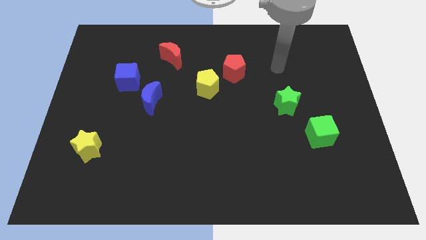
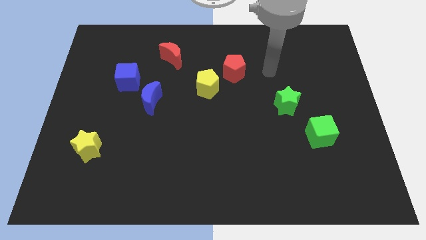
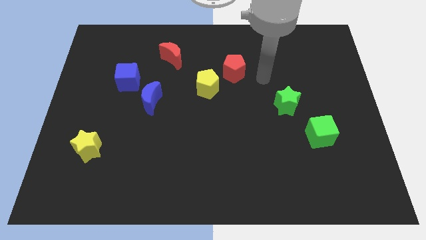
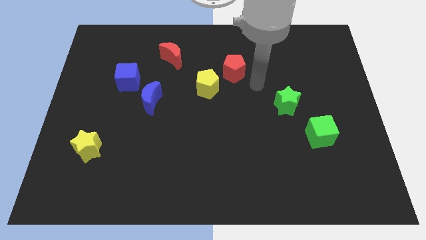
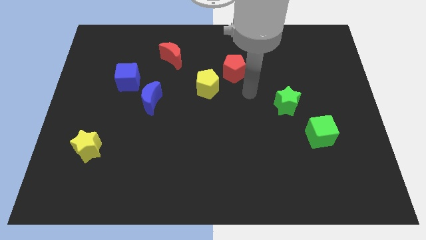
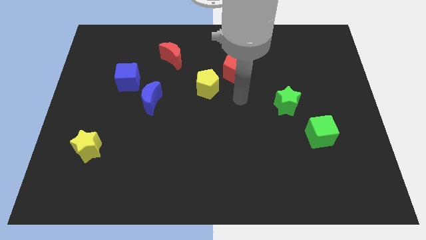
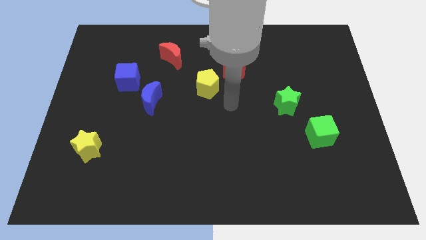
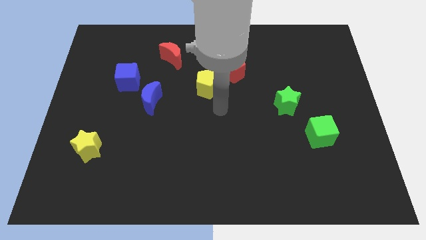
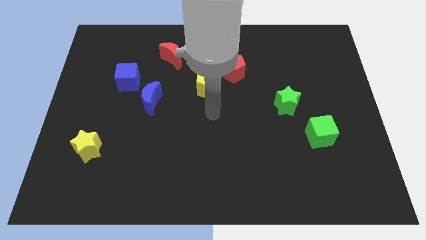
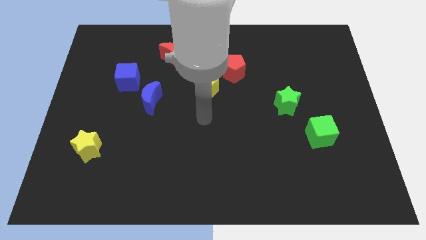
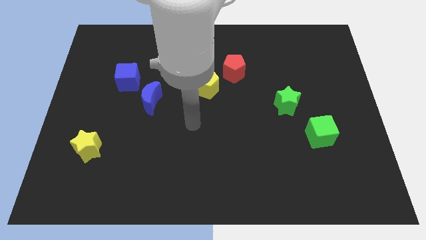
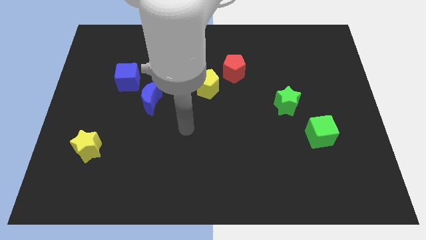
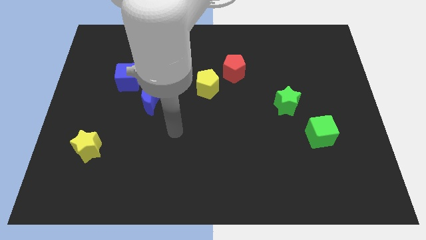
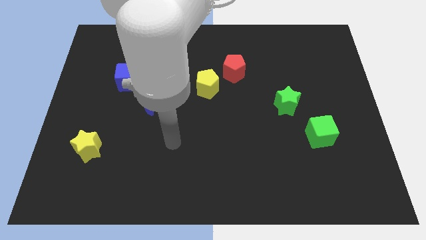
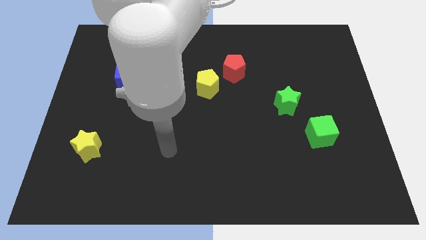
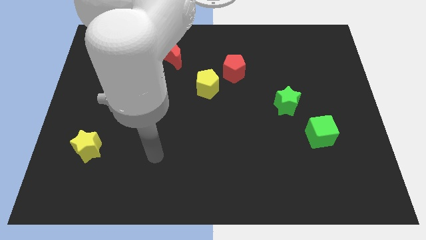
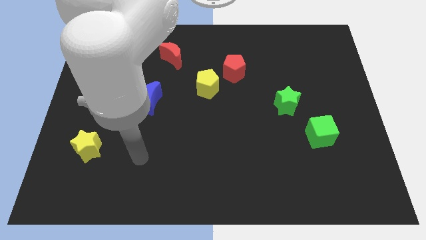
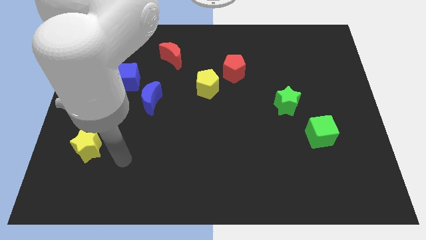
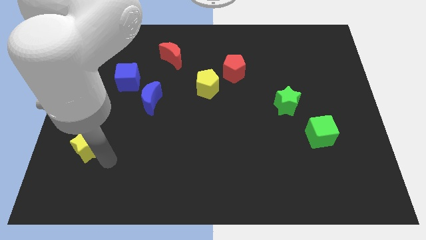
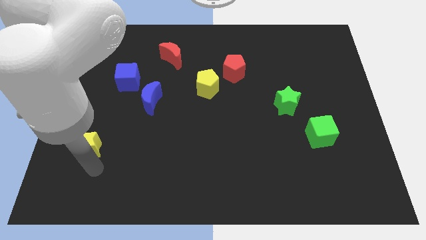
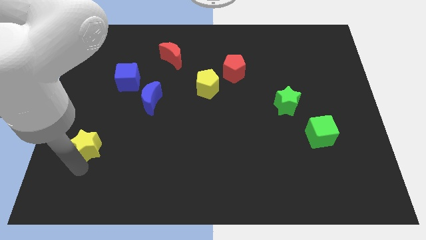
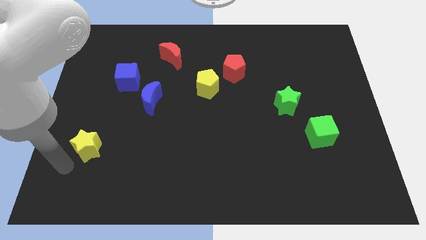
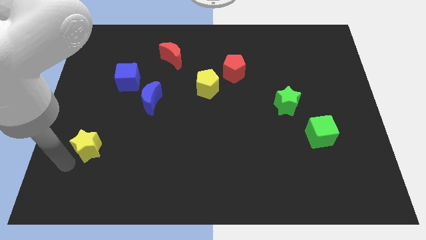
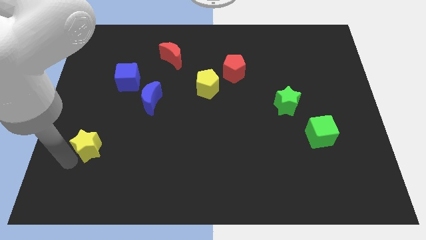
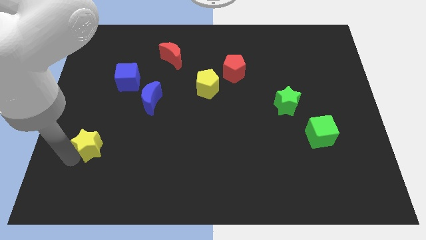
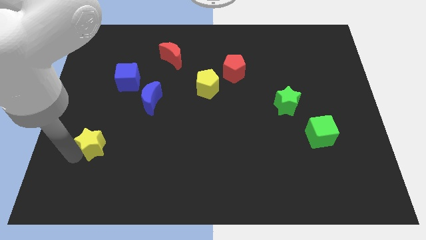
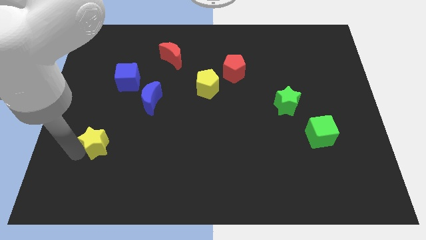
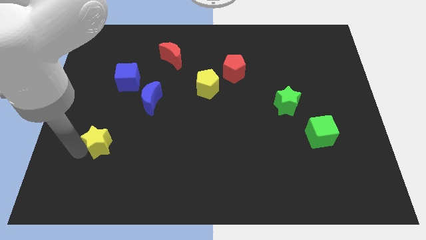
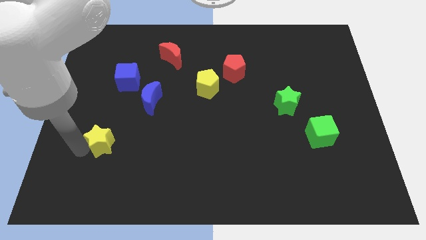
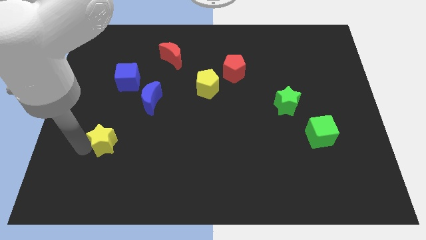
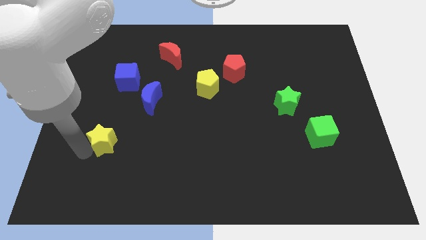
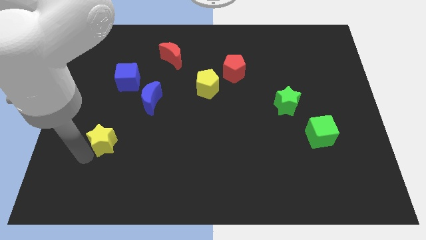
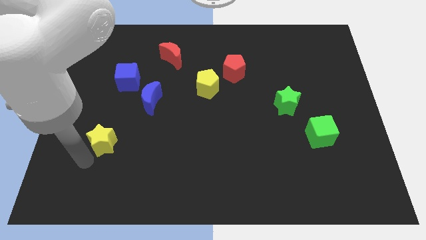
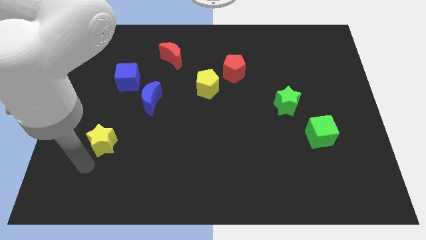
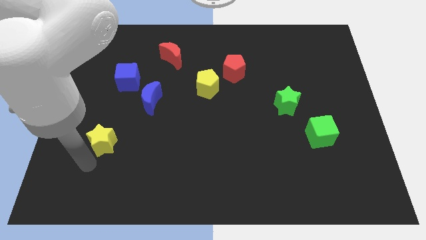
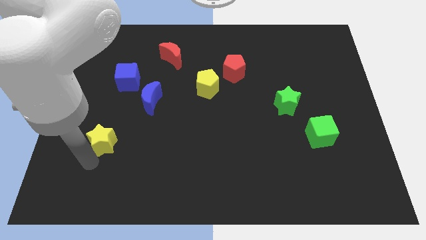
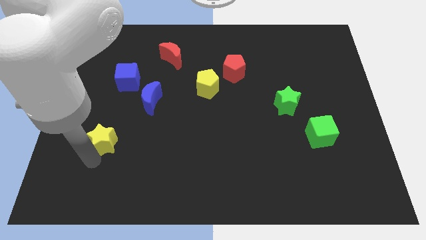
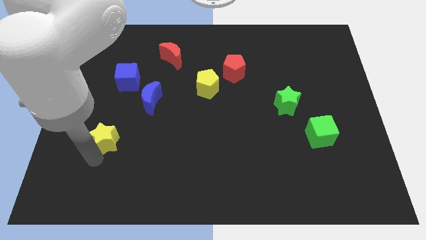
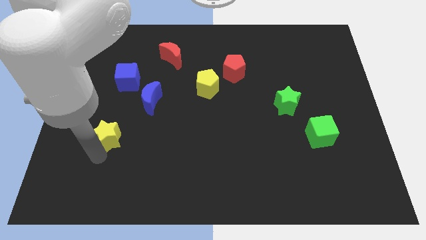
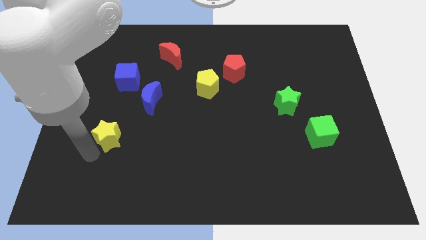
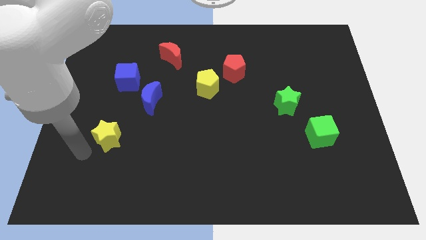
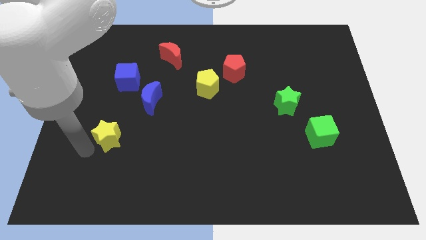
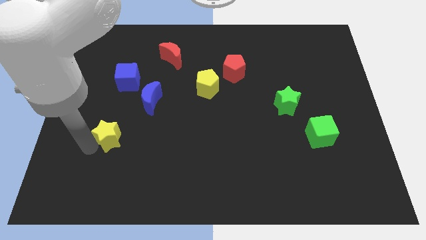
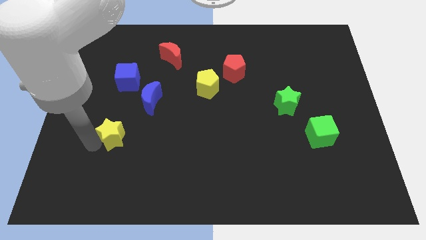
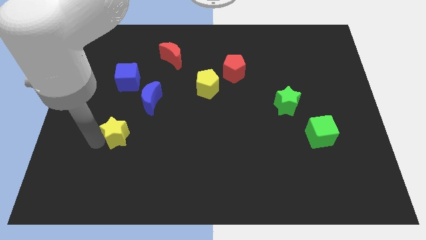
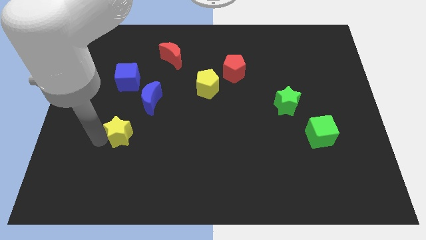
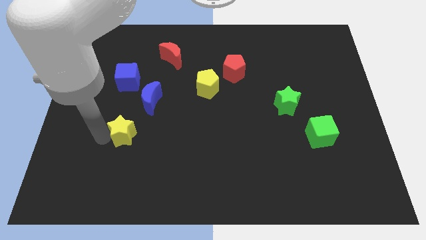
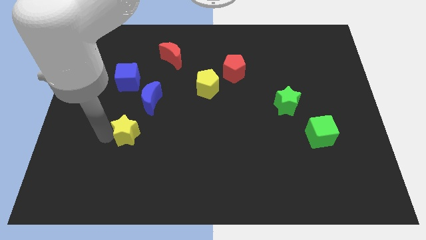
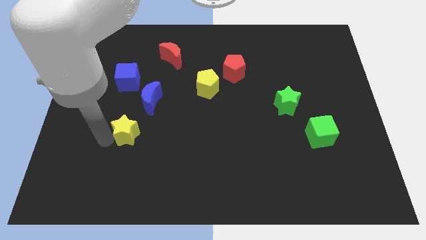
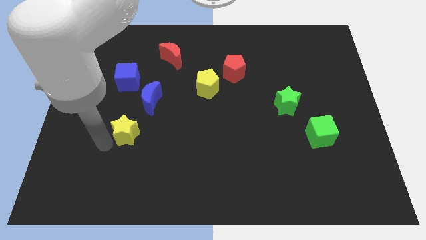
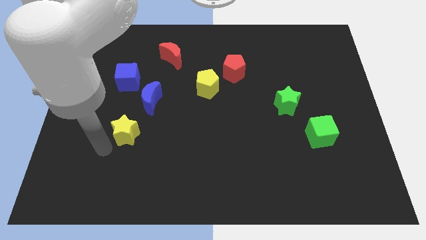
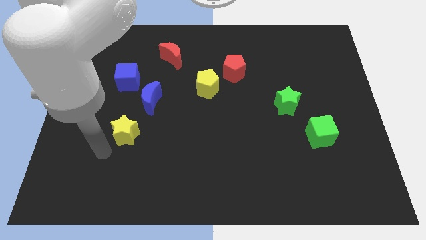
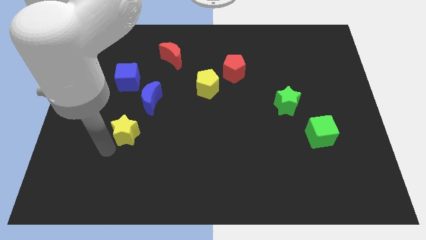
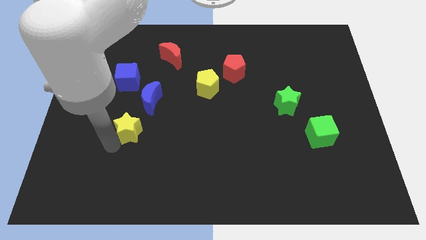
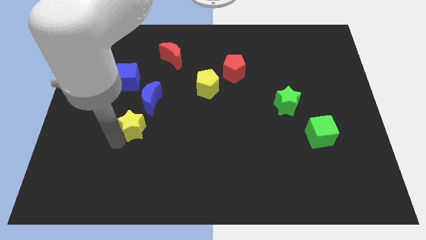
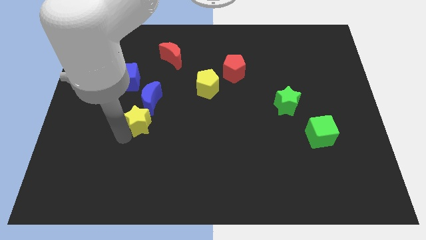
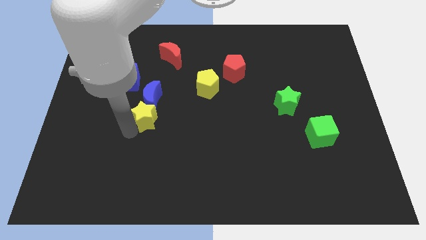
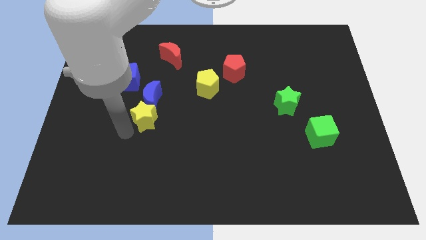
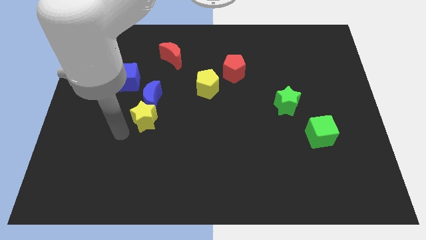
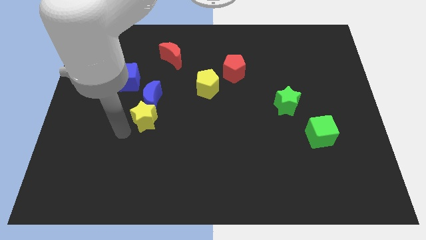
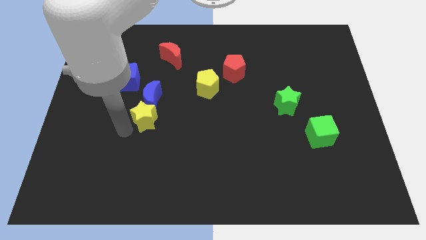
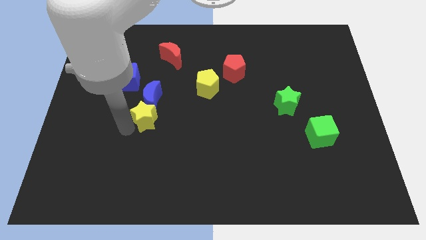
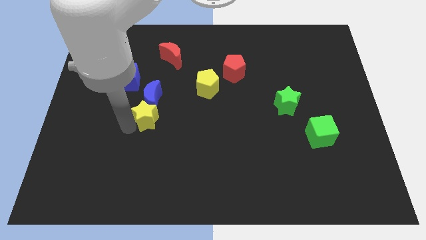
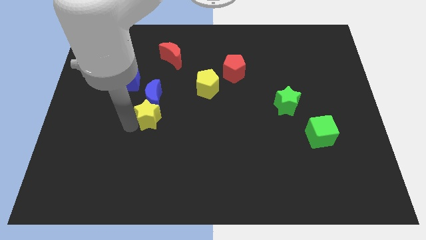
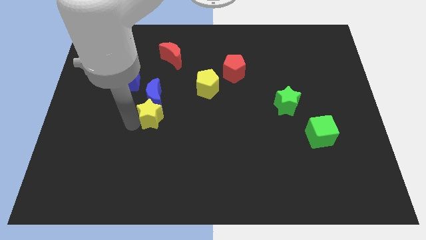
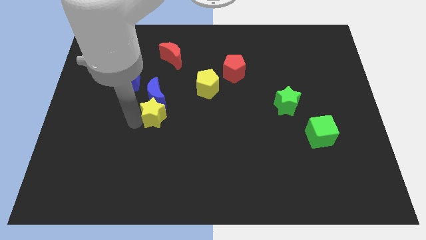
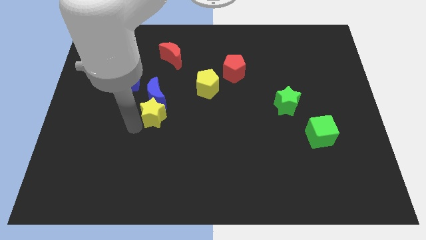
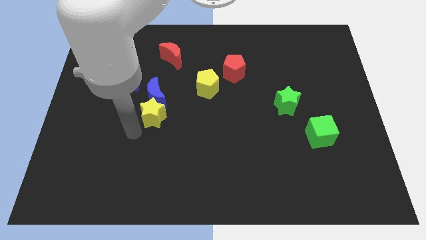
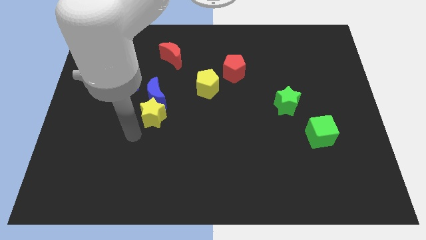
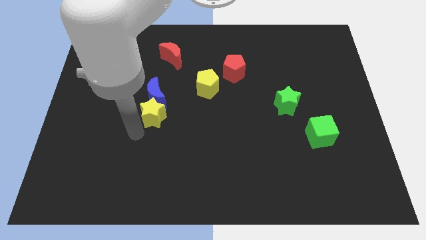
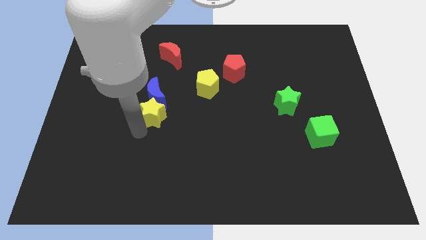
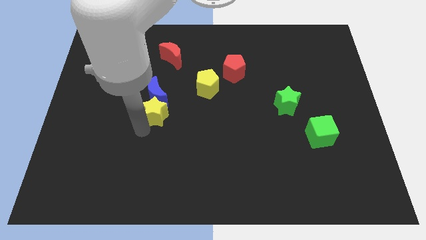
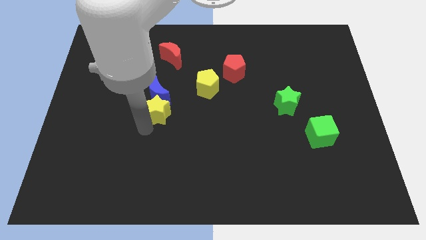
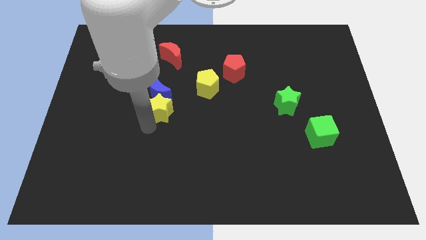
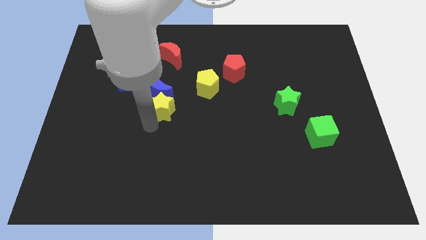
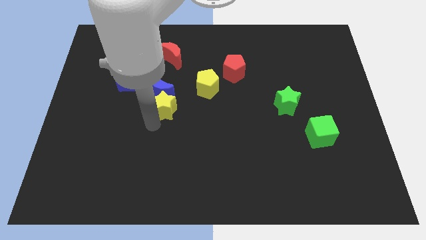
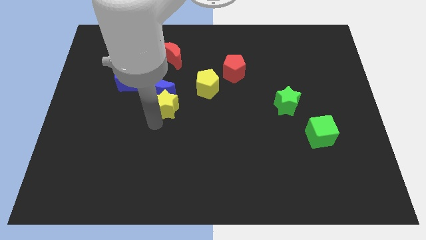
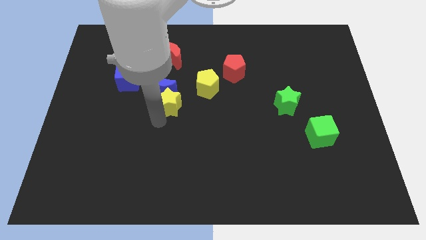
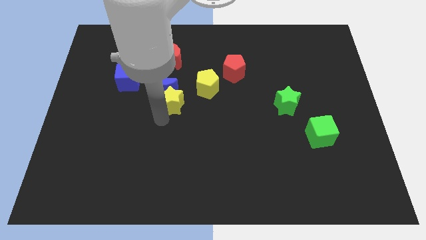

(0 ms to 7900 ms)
slide the yellow star upwards and to the right

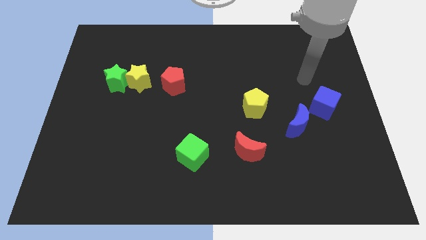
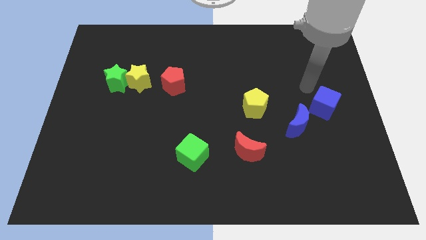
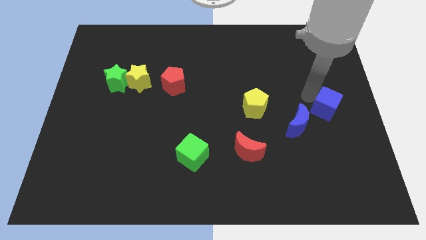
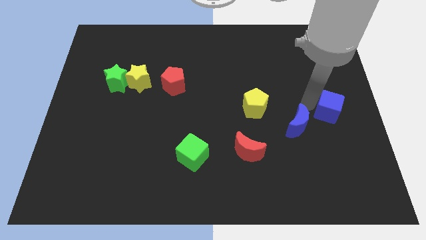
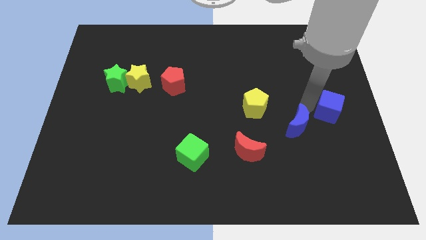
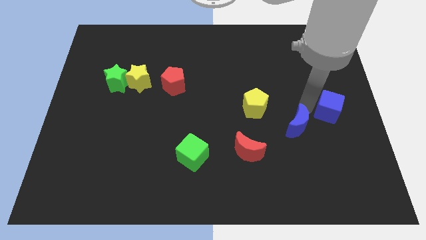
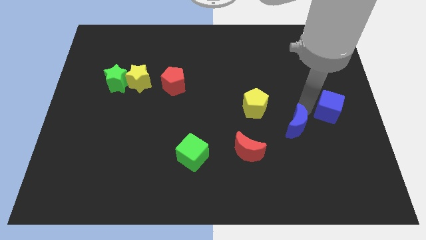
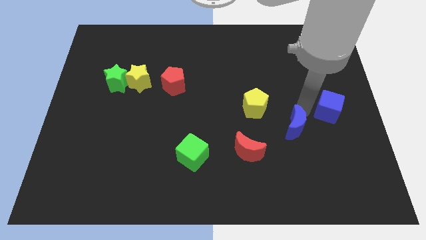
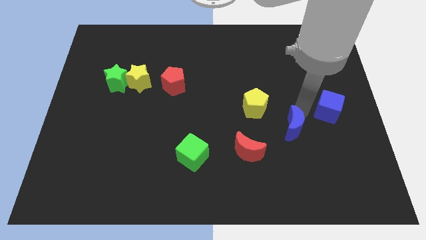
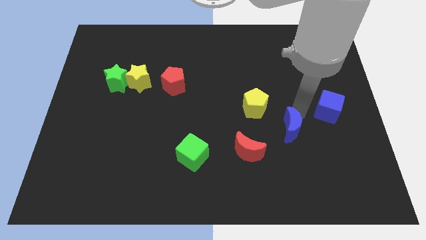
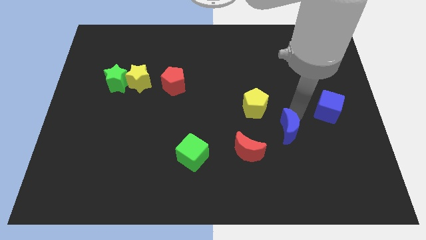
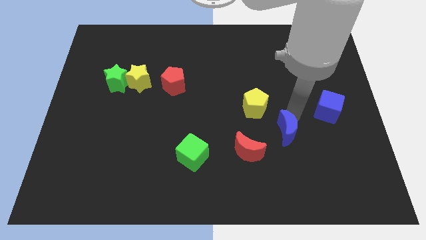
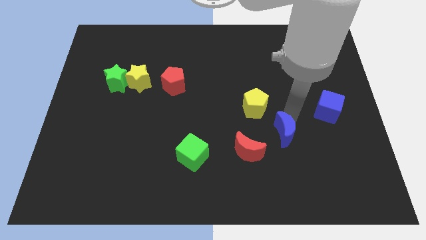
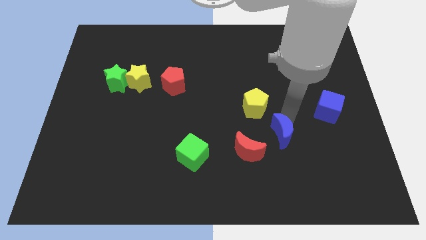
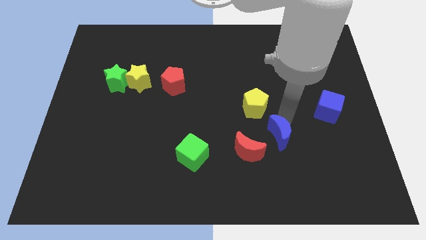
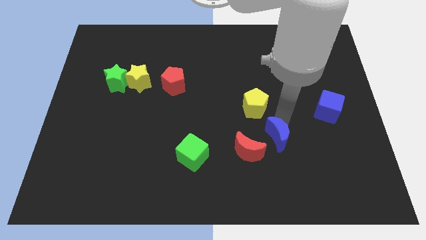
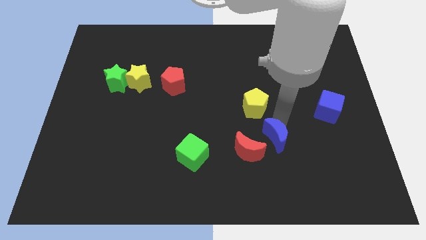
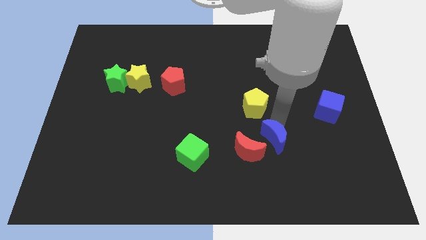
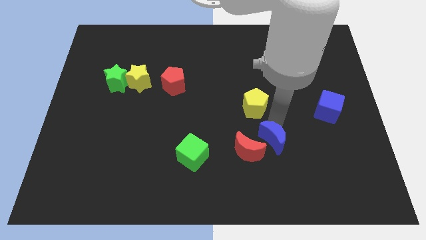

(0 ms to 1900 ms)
slide the blue moon a bit downwards and to the left
